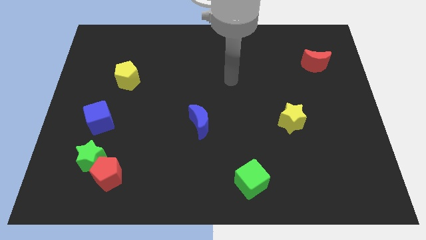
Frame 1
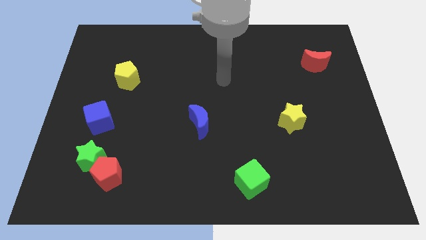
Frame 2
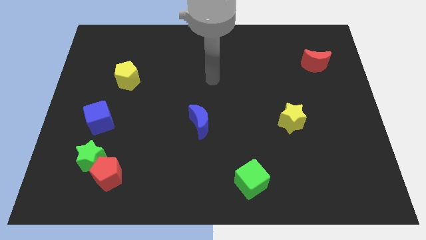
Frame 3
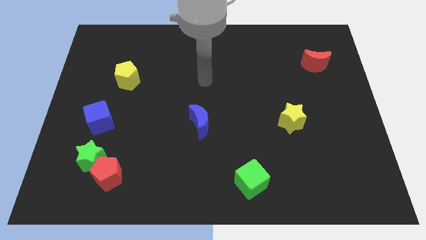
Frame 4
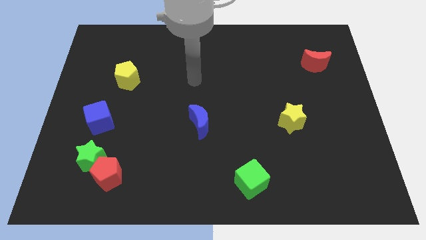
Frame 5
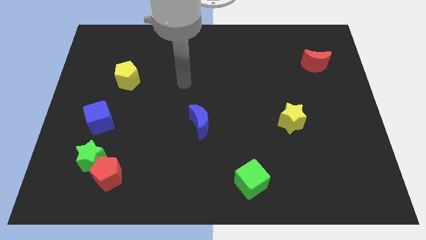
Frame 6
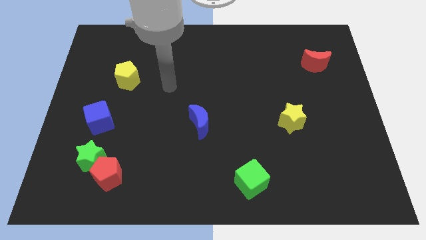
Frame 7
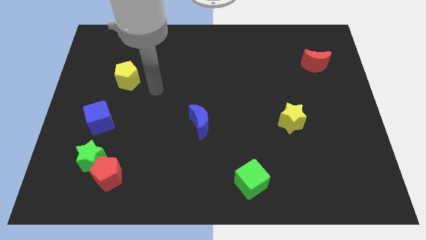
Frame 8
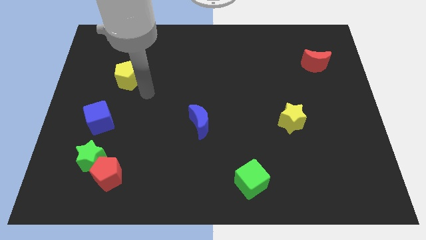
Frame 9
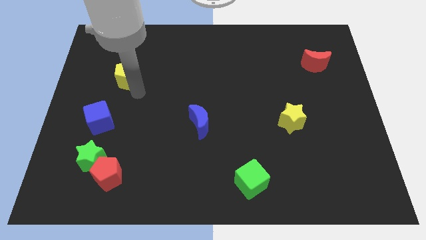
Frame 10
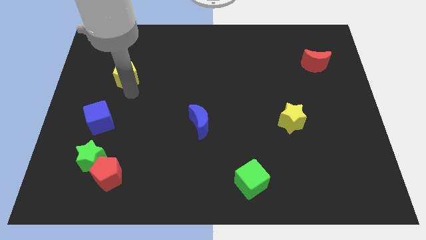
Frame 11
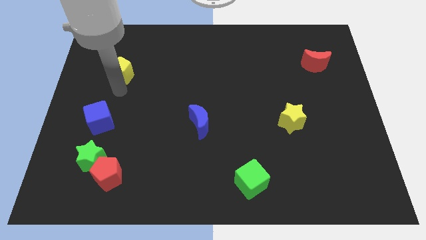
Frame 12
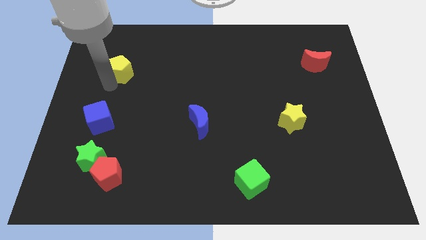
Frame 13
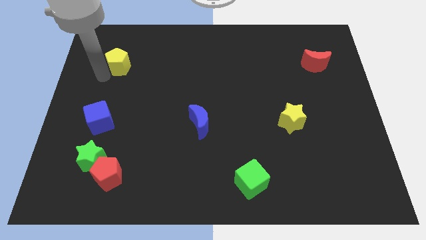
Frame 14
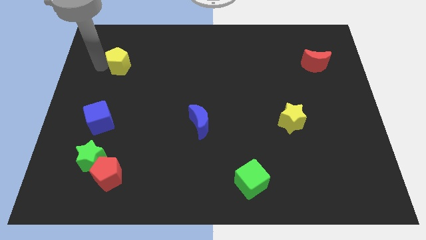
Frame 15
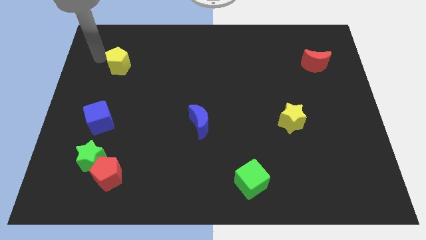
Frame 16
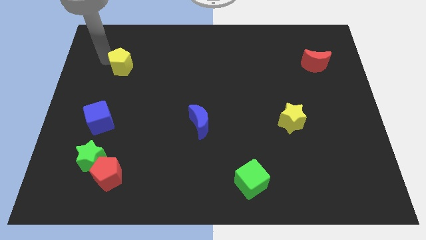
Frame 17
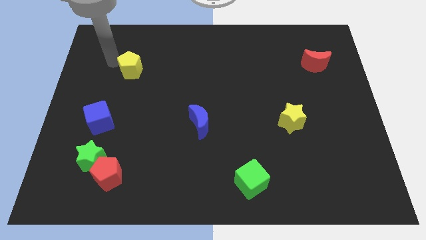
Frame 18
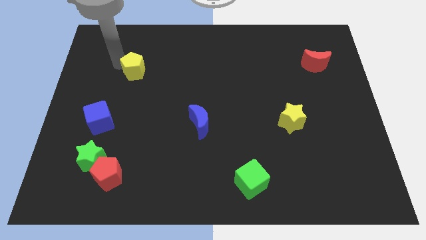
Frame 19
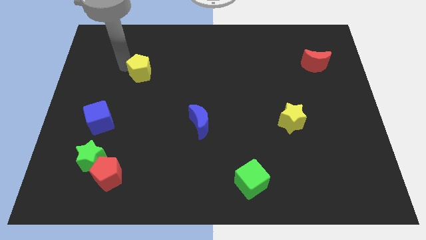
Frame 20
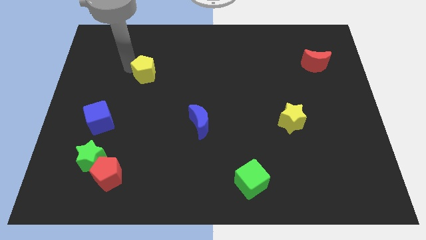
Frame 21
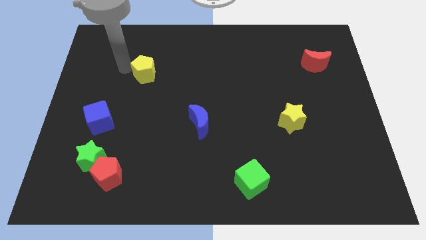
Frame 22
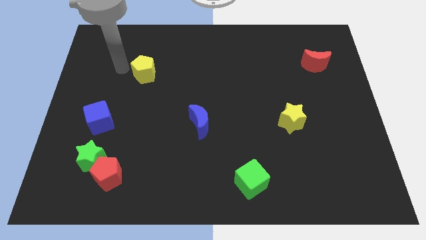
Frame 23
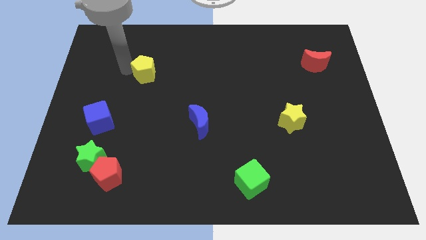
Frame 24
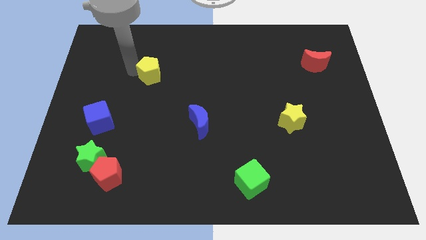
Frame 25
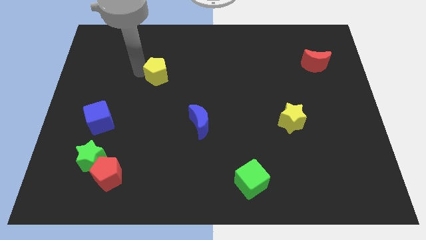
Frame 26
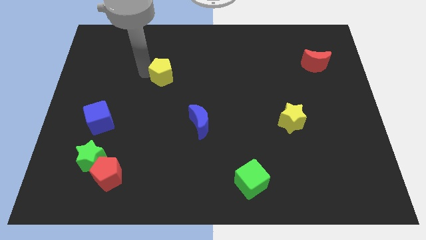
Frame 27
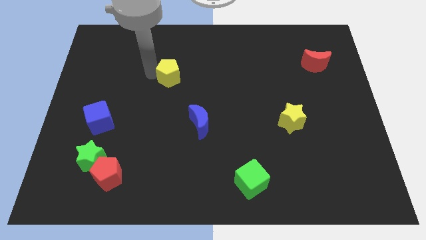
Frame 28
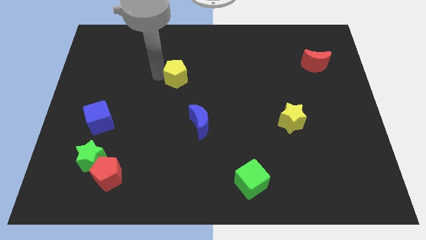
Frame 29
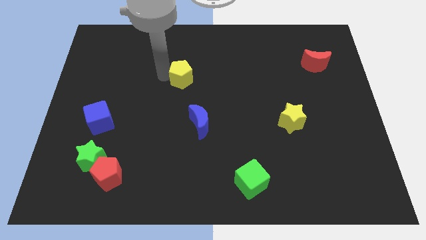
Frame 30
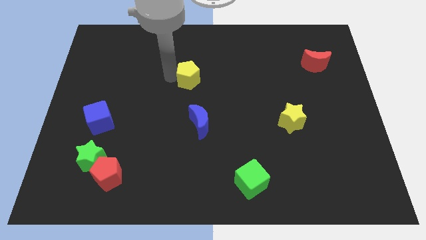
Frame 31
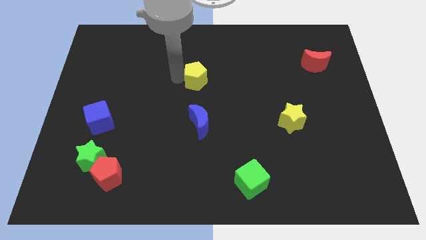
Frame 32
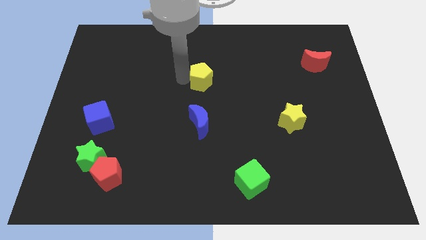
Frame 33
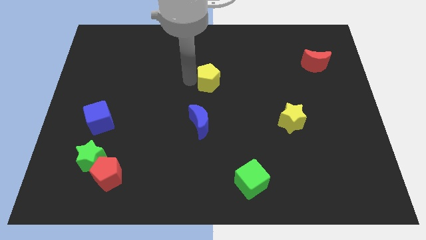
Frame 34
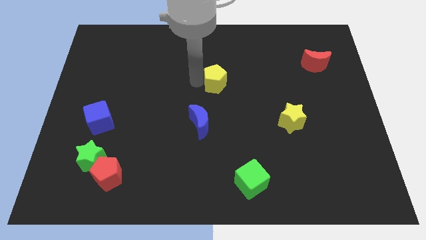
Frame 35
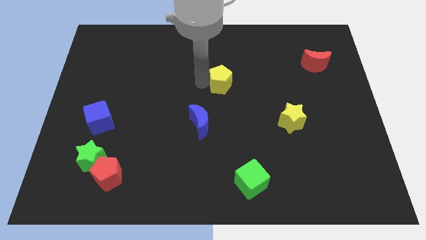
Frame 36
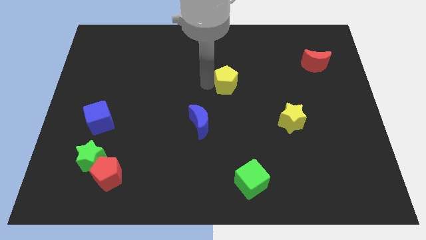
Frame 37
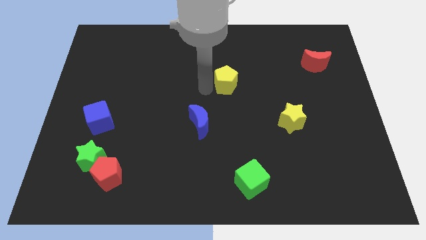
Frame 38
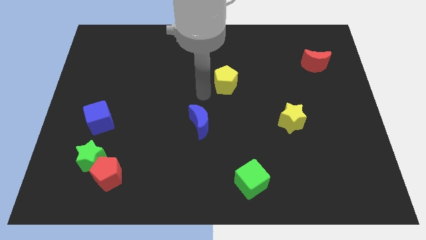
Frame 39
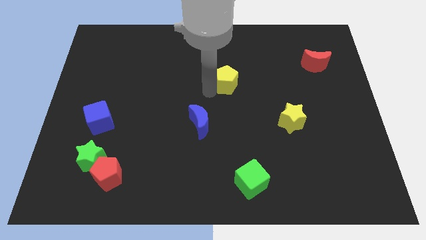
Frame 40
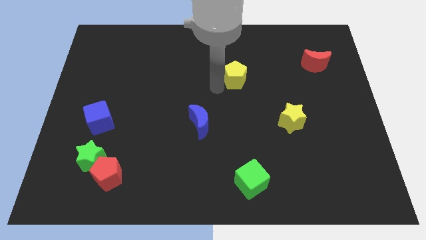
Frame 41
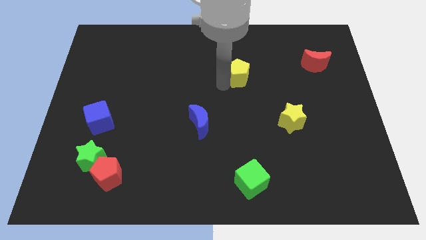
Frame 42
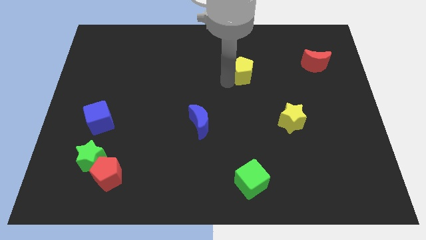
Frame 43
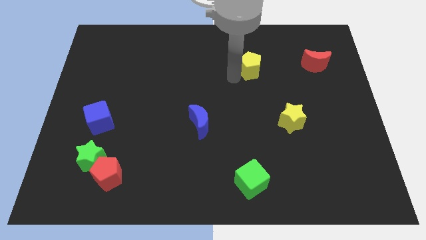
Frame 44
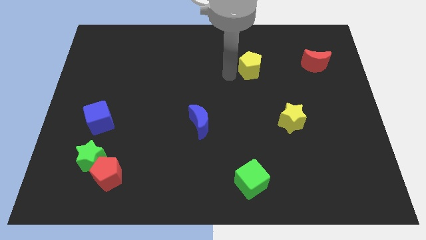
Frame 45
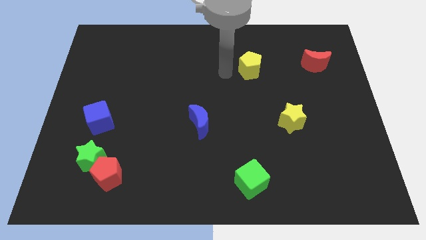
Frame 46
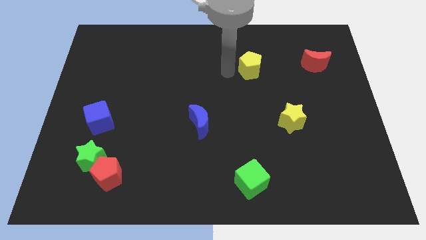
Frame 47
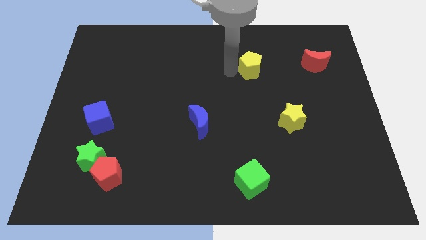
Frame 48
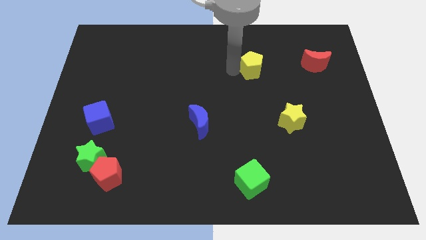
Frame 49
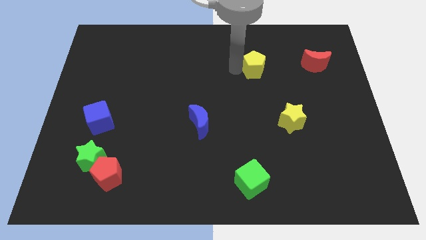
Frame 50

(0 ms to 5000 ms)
put the yellow pentagon left of the red moon

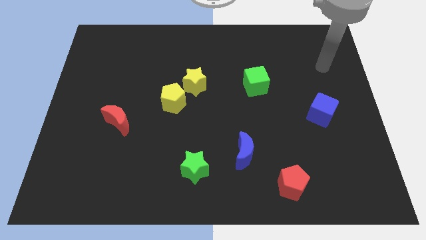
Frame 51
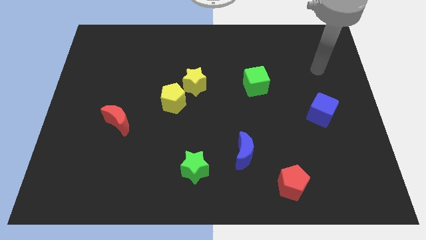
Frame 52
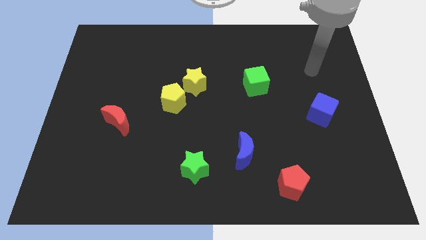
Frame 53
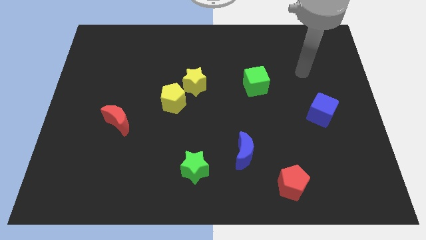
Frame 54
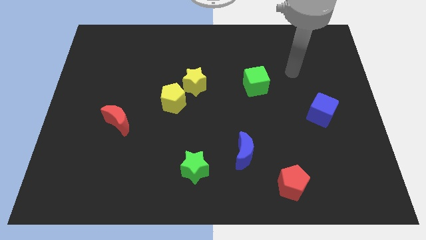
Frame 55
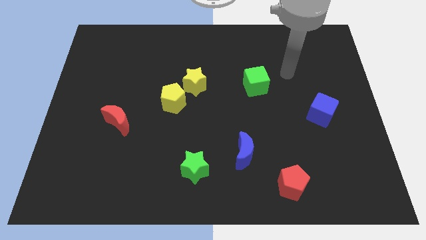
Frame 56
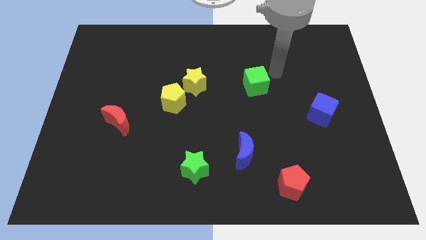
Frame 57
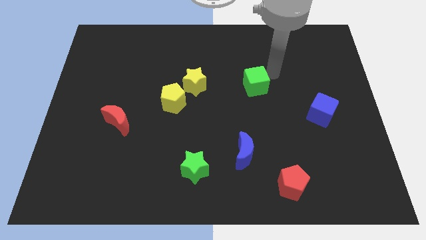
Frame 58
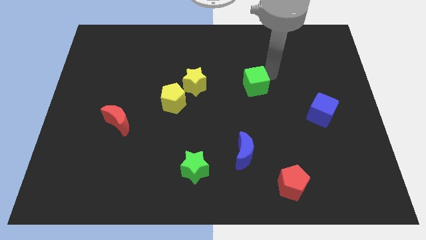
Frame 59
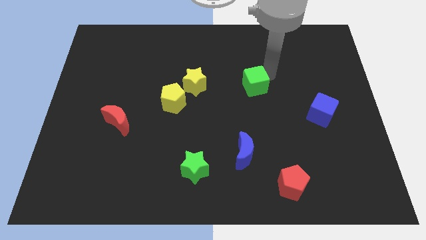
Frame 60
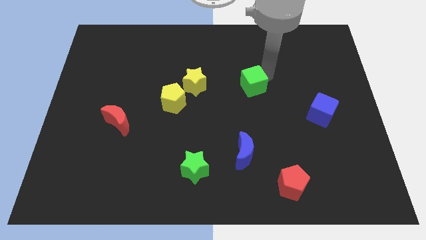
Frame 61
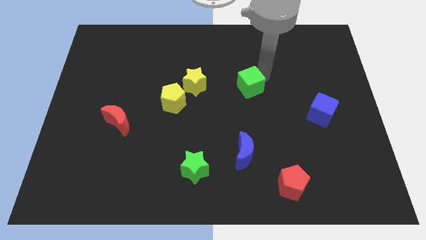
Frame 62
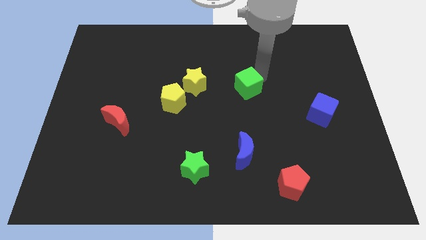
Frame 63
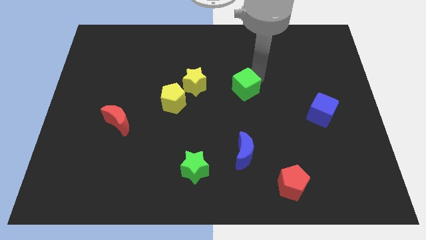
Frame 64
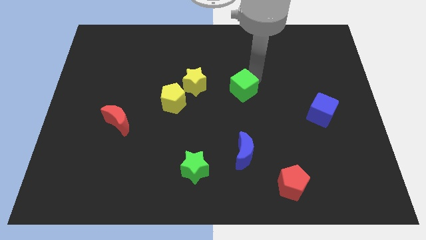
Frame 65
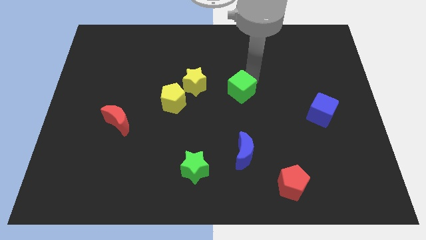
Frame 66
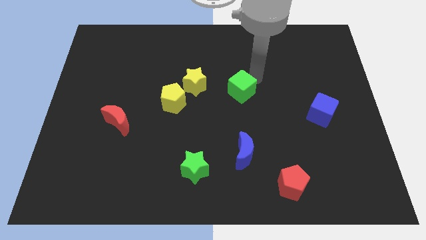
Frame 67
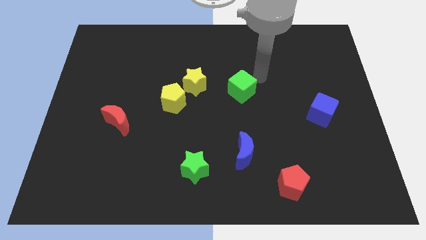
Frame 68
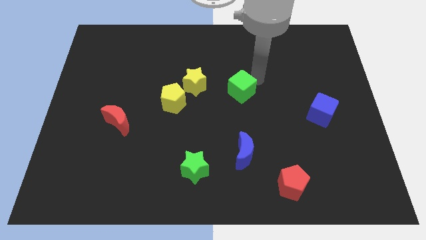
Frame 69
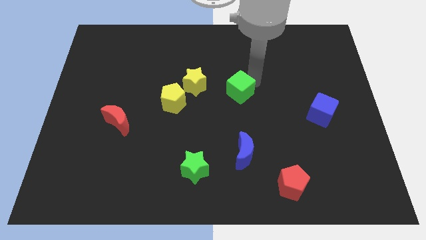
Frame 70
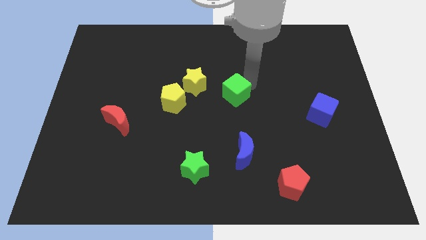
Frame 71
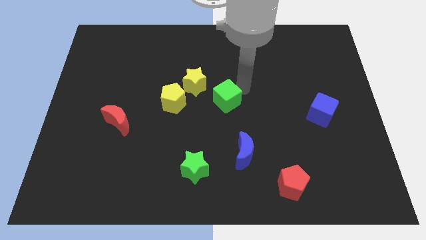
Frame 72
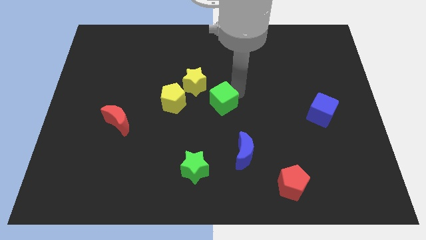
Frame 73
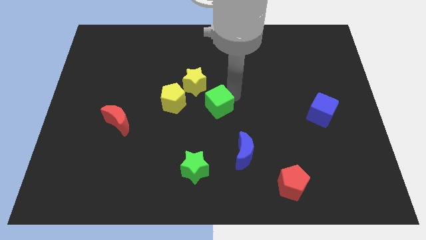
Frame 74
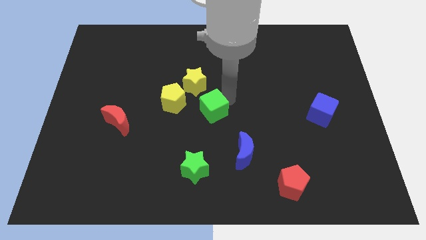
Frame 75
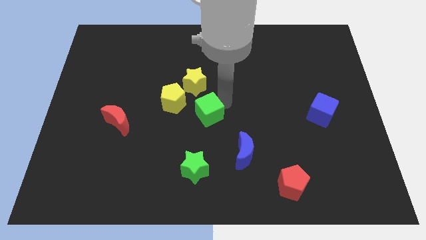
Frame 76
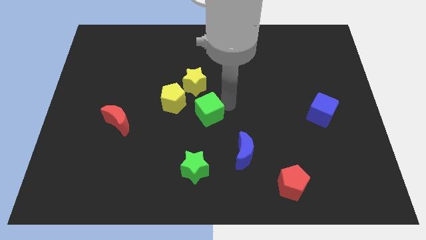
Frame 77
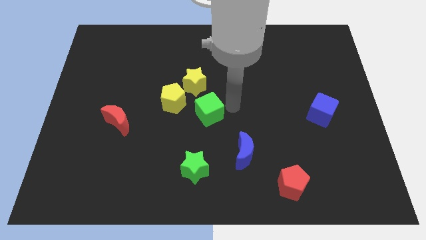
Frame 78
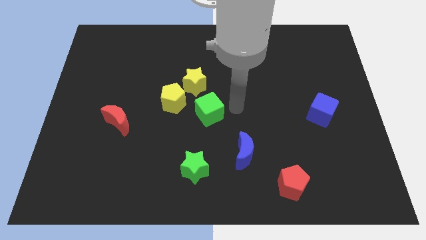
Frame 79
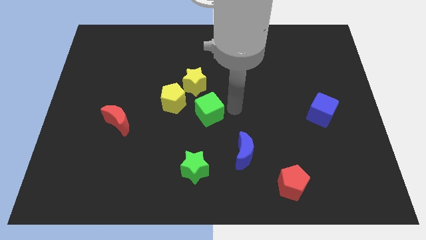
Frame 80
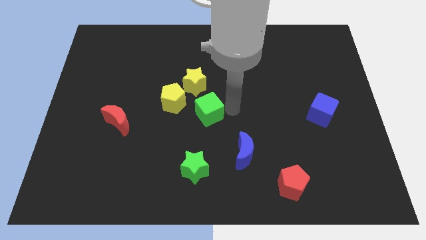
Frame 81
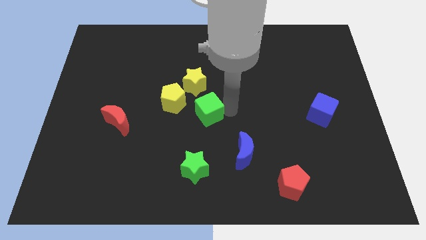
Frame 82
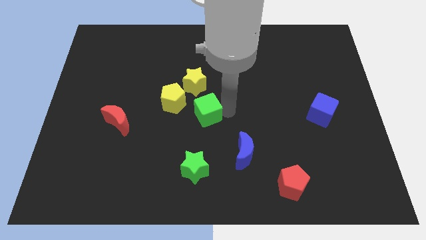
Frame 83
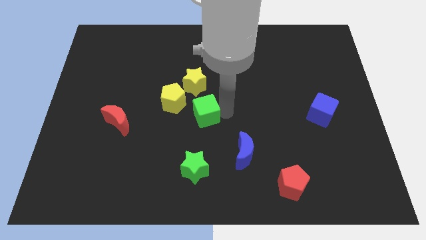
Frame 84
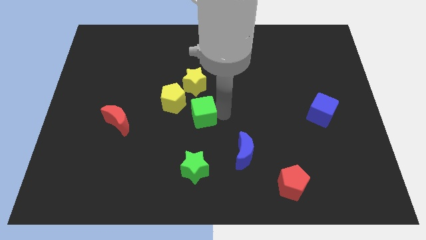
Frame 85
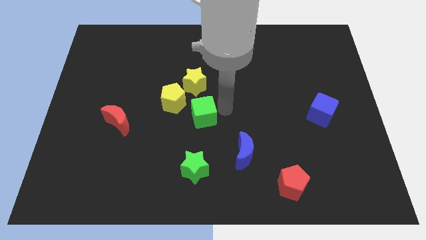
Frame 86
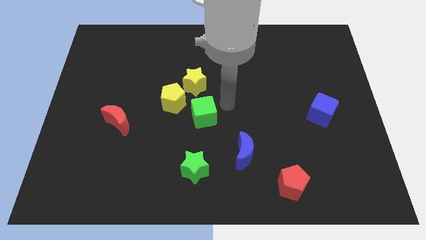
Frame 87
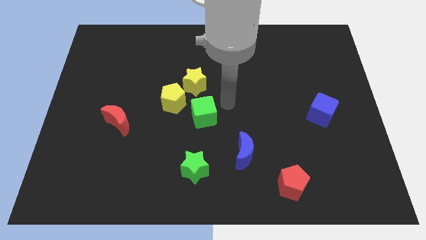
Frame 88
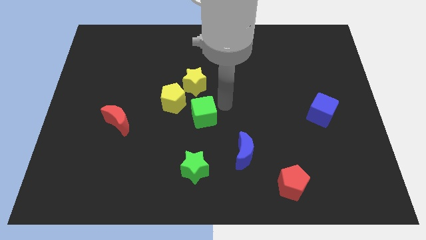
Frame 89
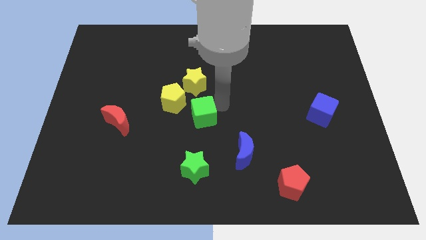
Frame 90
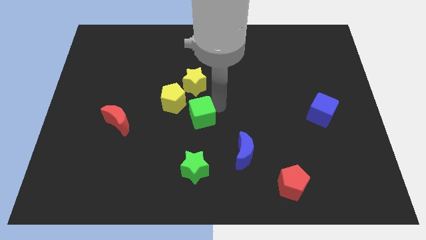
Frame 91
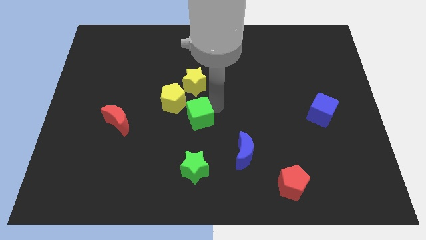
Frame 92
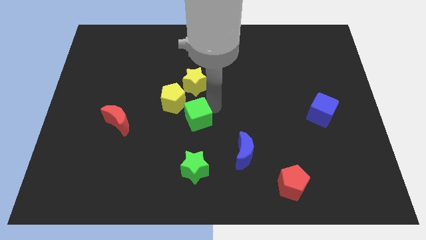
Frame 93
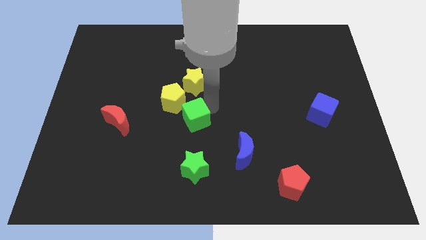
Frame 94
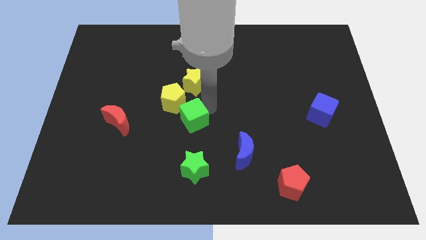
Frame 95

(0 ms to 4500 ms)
push the green cube to the bottom of the yellow pentagon
